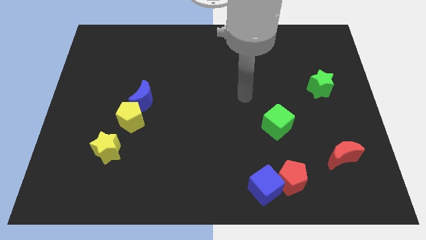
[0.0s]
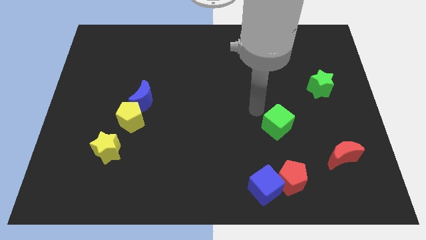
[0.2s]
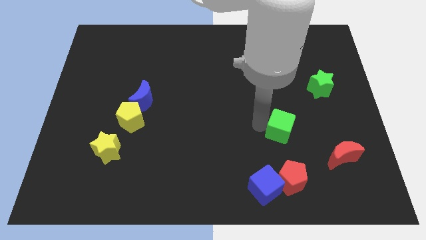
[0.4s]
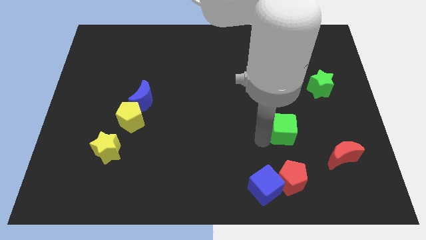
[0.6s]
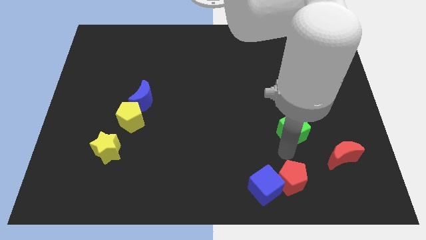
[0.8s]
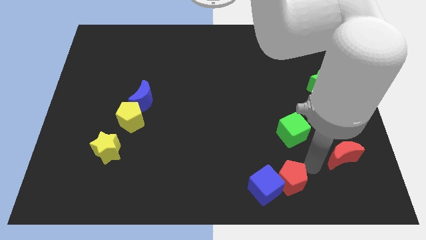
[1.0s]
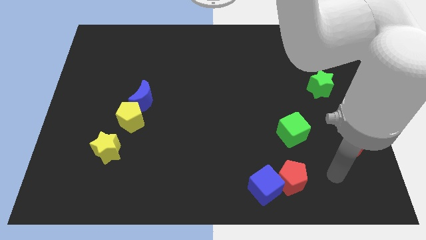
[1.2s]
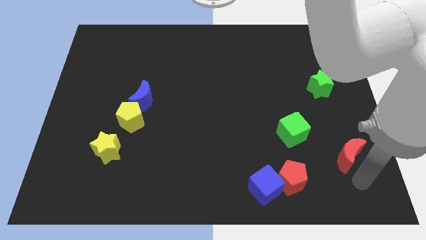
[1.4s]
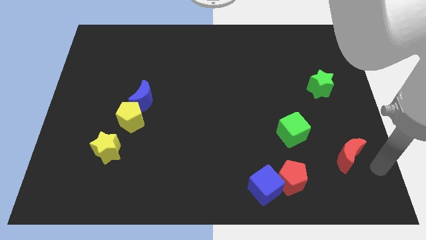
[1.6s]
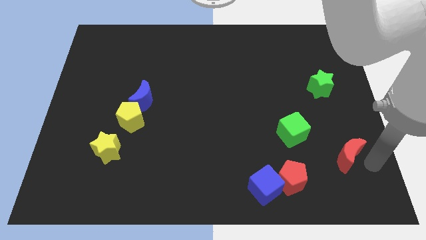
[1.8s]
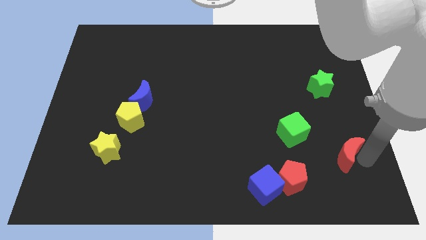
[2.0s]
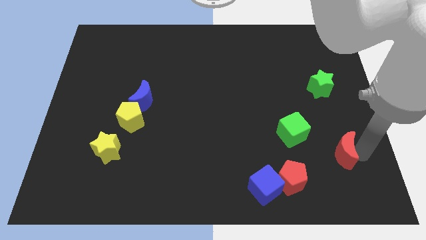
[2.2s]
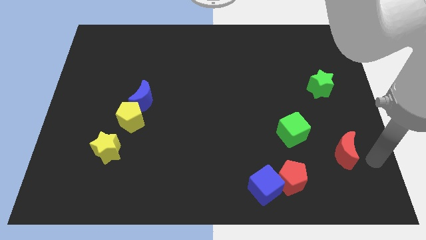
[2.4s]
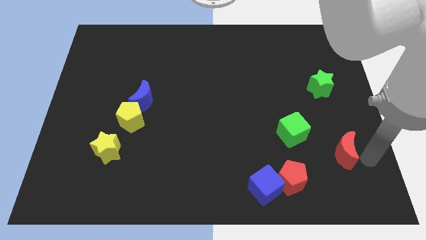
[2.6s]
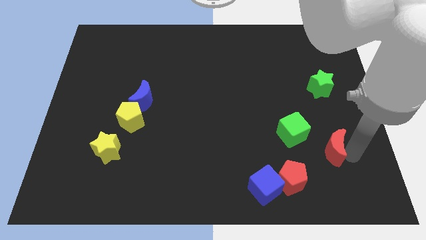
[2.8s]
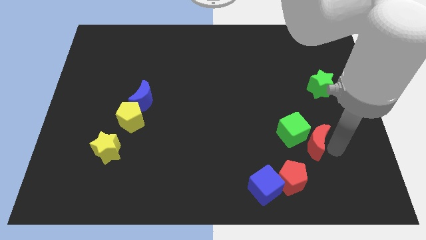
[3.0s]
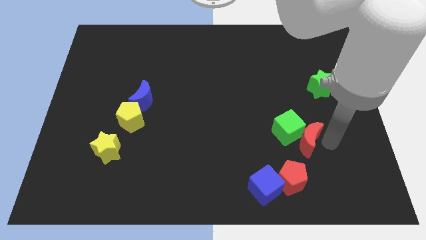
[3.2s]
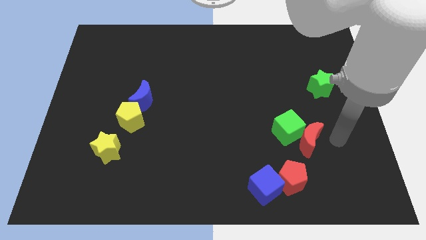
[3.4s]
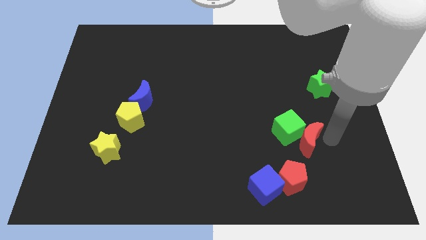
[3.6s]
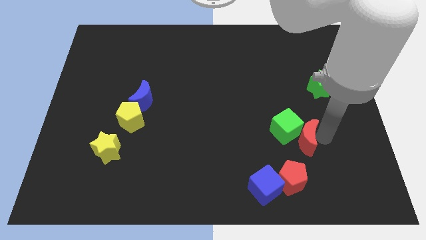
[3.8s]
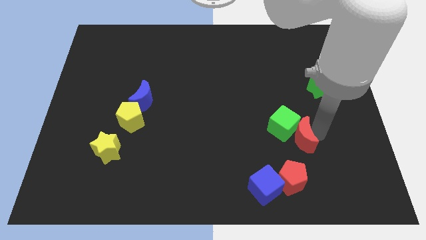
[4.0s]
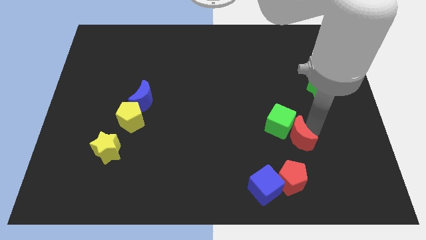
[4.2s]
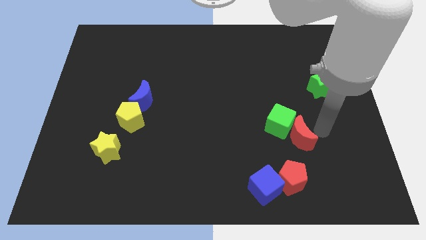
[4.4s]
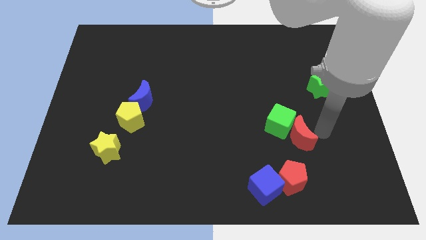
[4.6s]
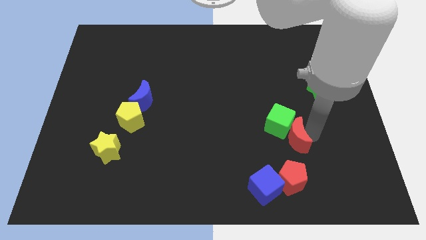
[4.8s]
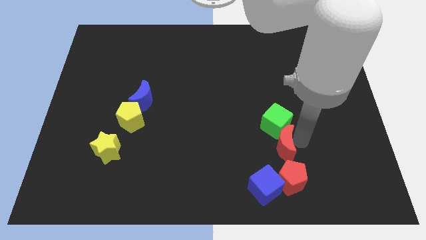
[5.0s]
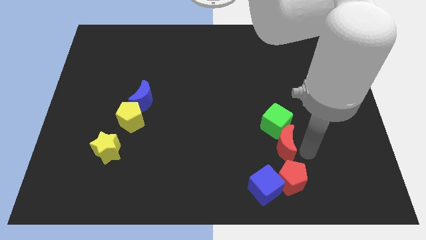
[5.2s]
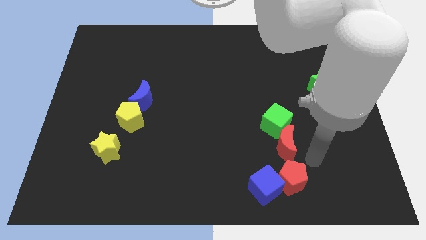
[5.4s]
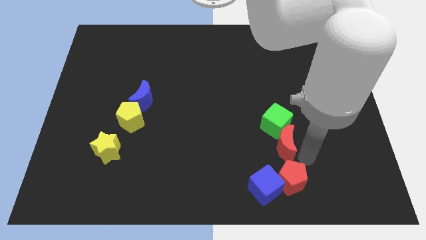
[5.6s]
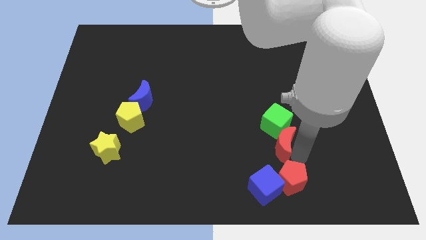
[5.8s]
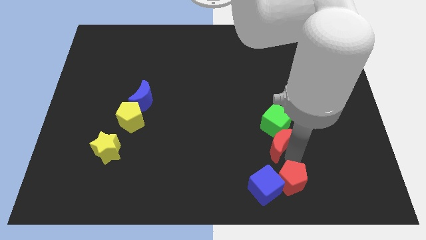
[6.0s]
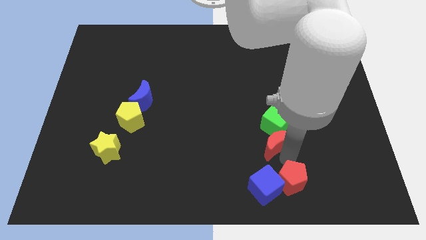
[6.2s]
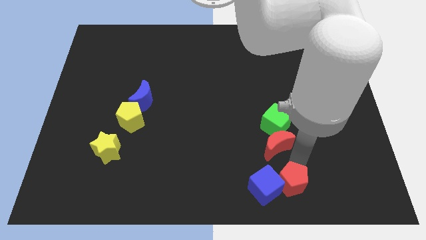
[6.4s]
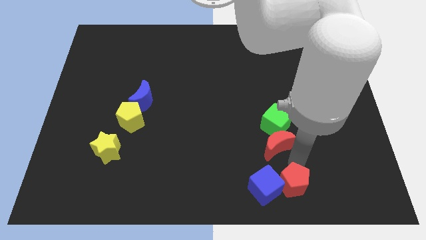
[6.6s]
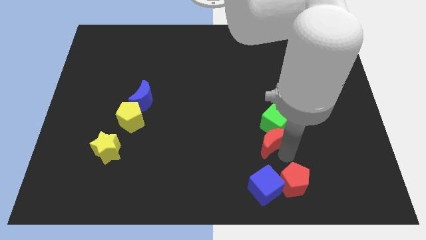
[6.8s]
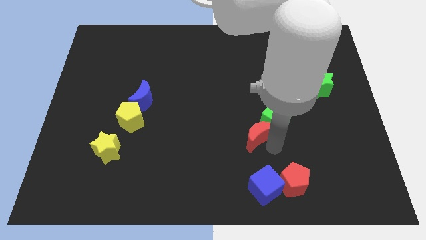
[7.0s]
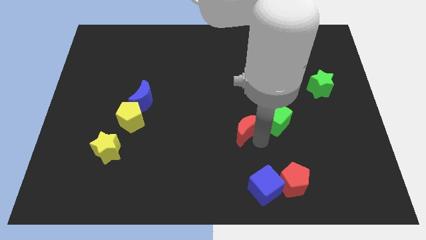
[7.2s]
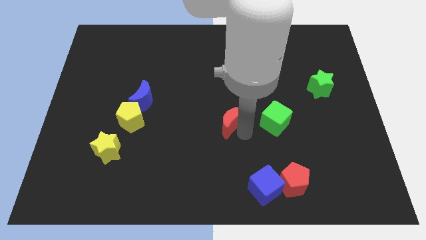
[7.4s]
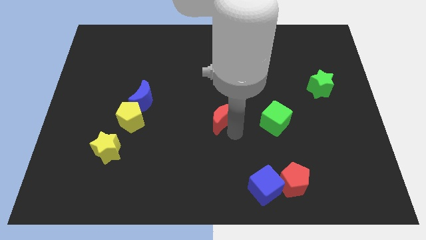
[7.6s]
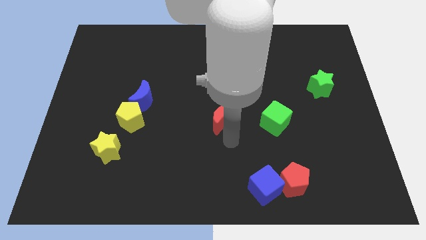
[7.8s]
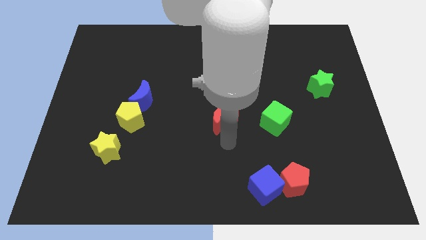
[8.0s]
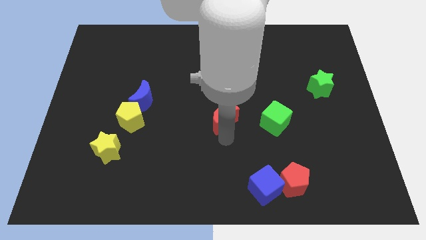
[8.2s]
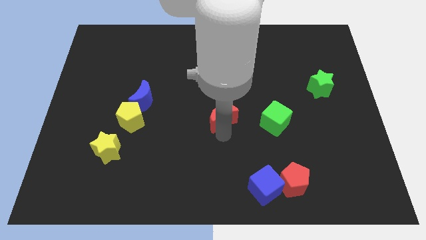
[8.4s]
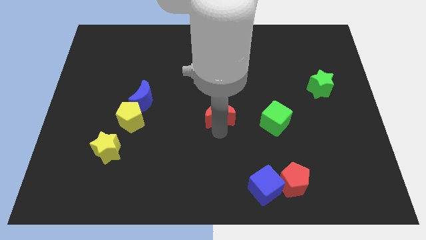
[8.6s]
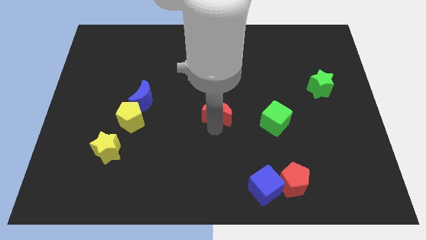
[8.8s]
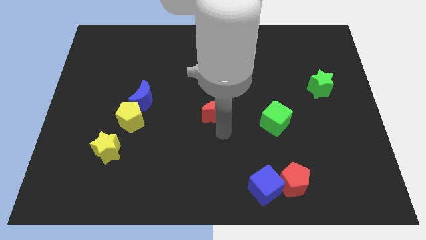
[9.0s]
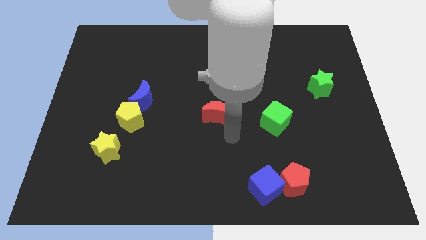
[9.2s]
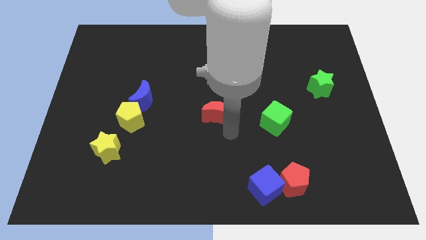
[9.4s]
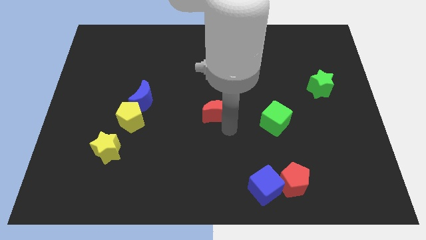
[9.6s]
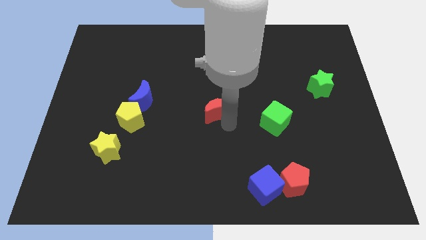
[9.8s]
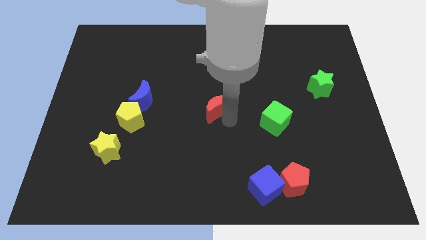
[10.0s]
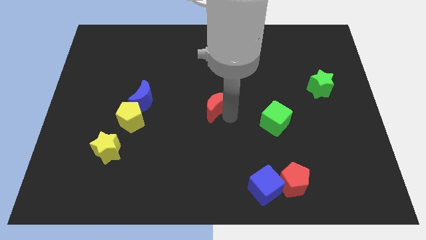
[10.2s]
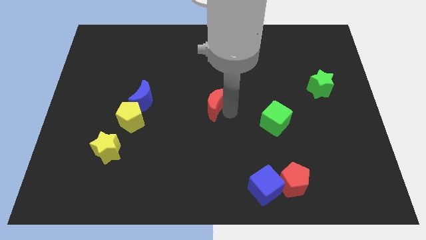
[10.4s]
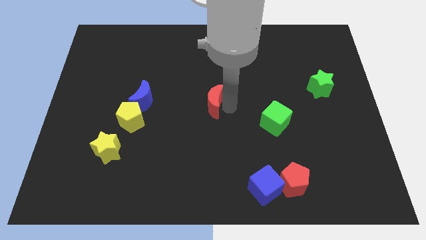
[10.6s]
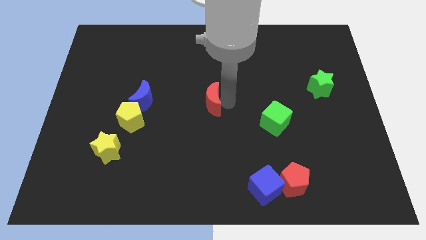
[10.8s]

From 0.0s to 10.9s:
move the red moon right of the blue moon

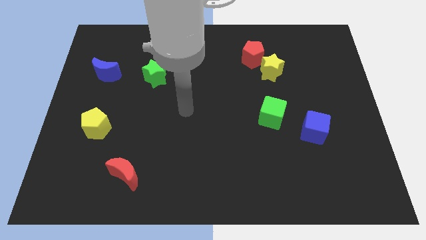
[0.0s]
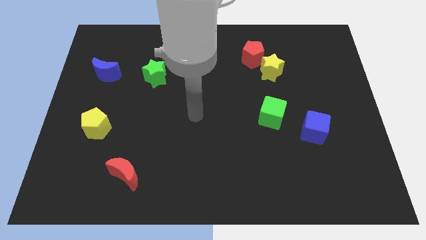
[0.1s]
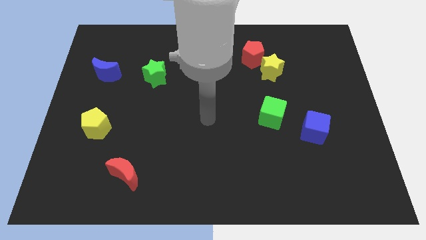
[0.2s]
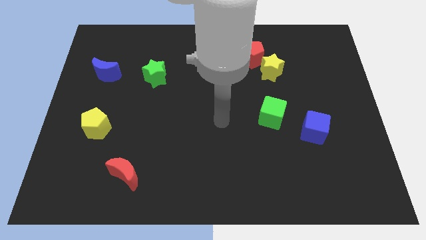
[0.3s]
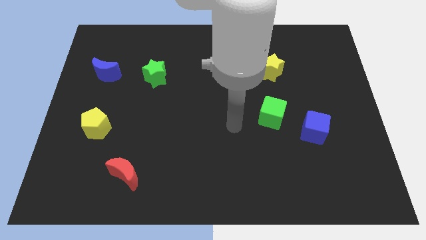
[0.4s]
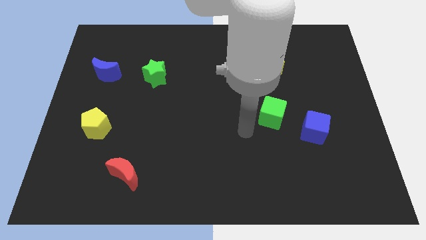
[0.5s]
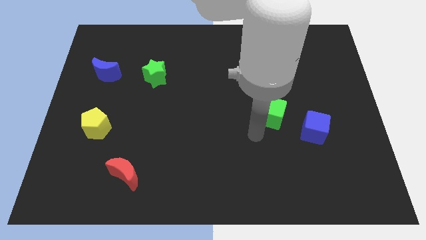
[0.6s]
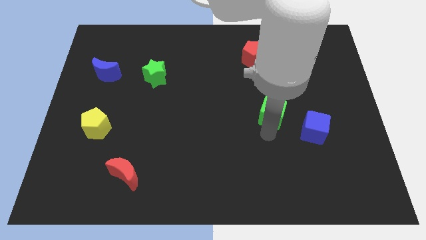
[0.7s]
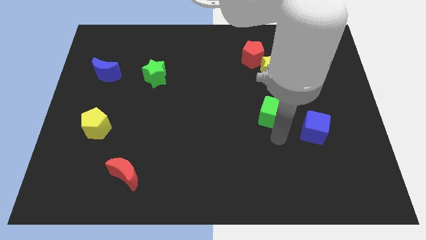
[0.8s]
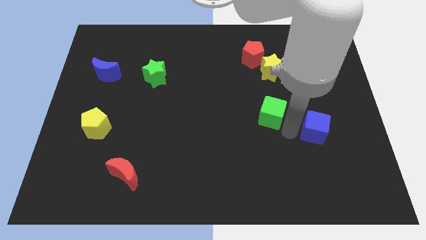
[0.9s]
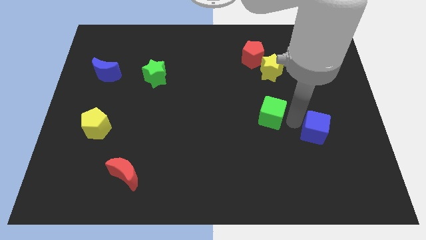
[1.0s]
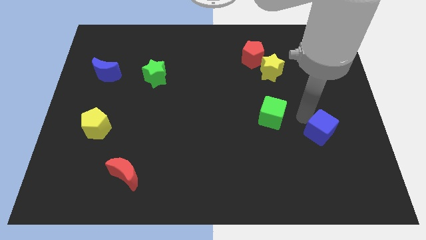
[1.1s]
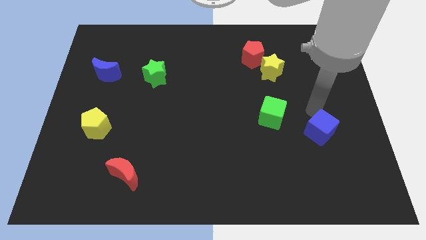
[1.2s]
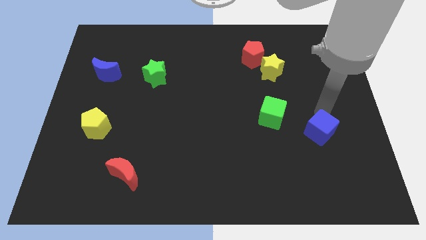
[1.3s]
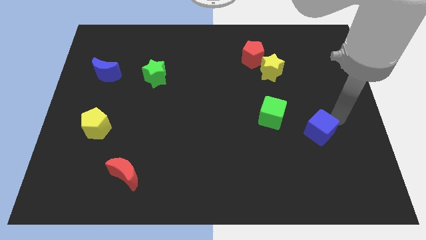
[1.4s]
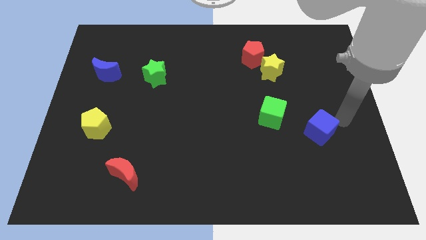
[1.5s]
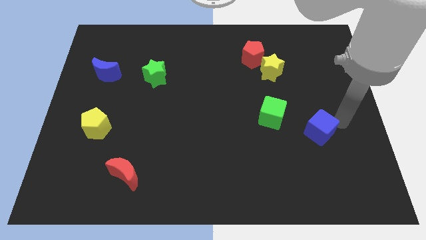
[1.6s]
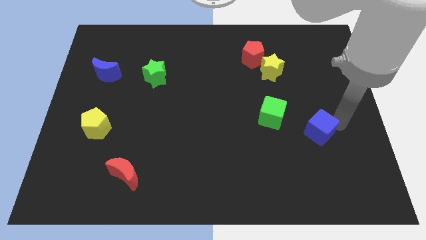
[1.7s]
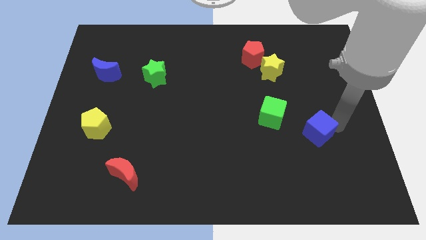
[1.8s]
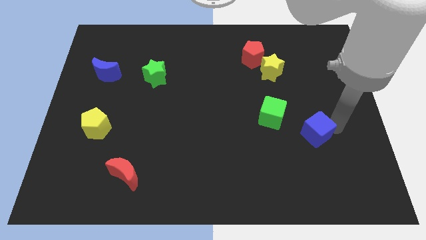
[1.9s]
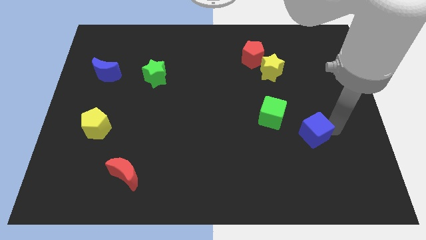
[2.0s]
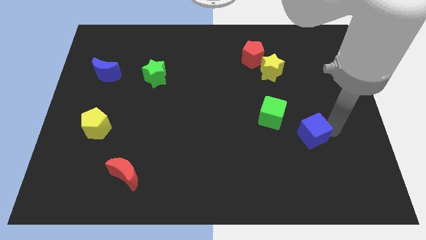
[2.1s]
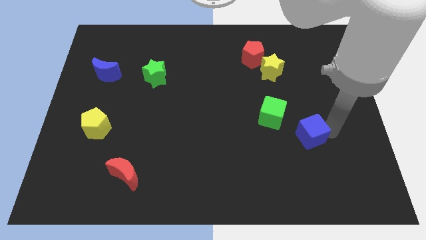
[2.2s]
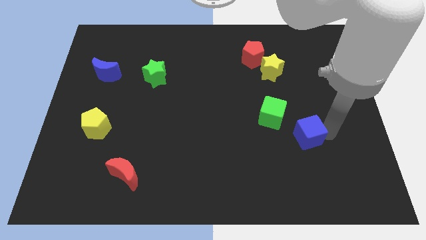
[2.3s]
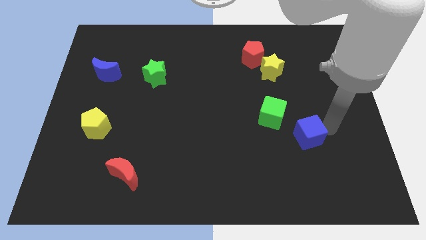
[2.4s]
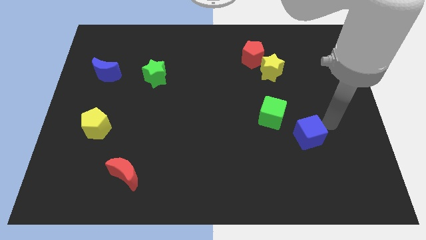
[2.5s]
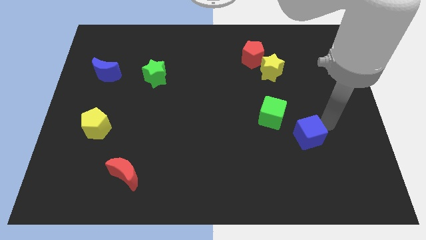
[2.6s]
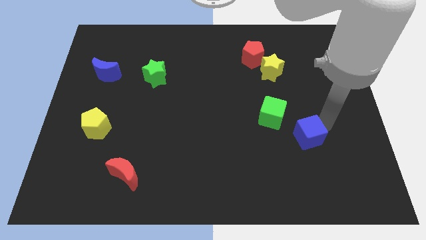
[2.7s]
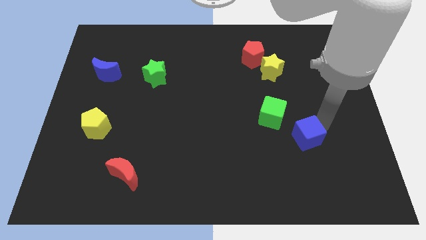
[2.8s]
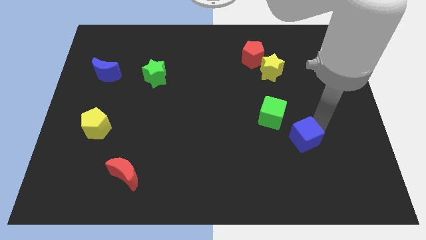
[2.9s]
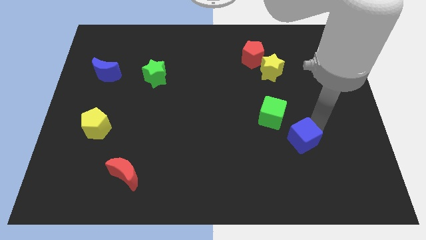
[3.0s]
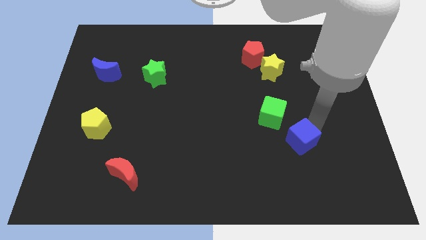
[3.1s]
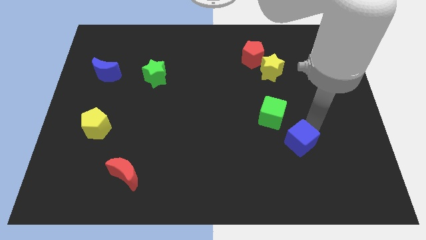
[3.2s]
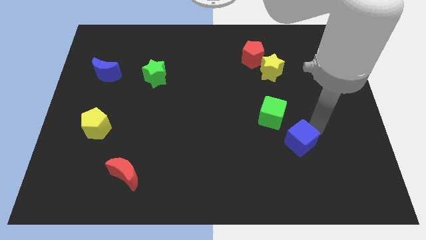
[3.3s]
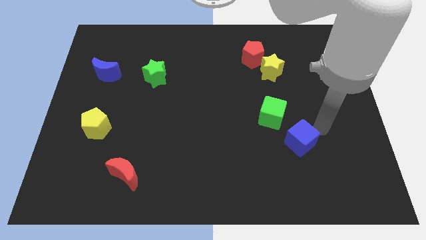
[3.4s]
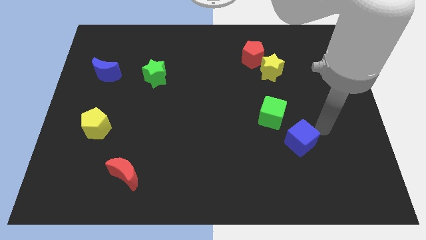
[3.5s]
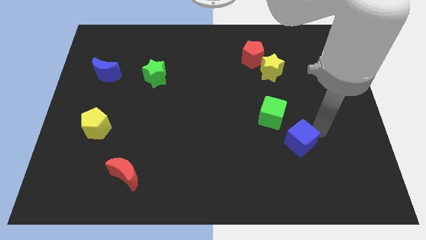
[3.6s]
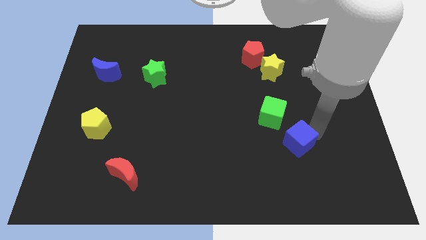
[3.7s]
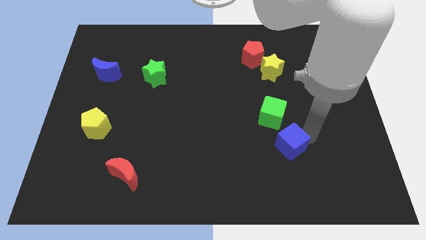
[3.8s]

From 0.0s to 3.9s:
move the blue cube to the bottom side of the green cube
